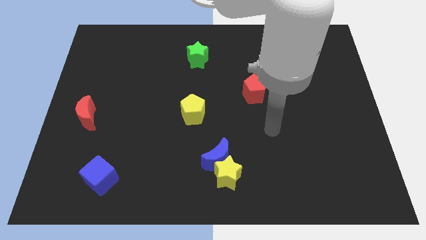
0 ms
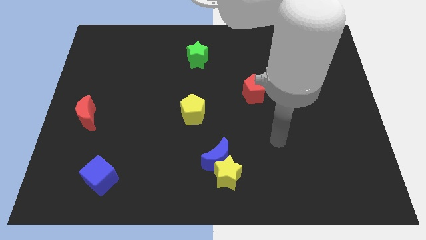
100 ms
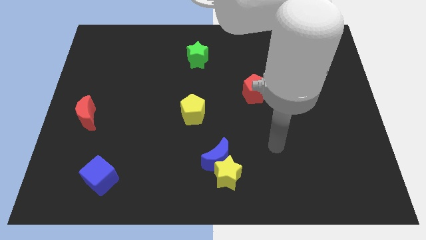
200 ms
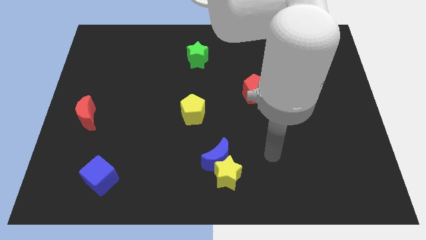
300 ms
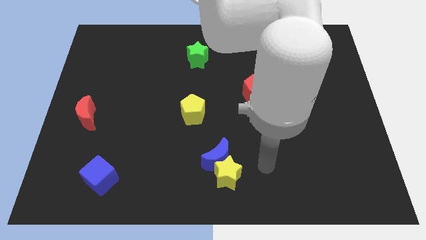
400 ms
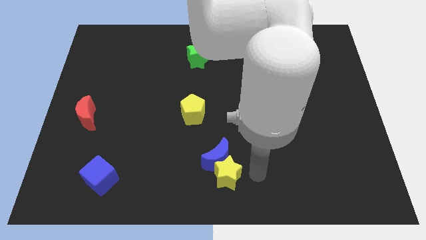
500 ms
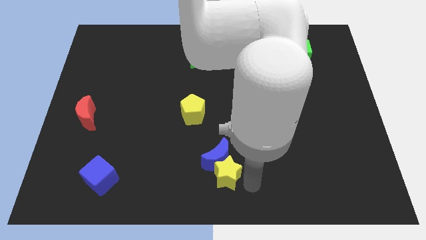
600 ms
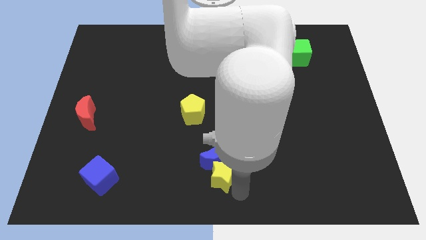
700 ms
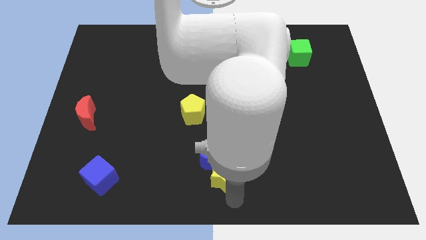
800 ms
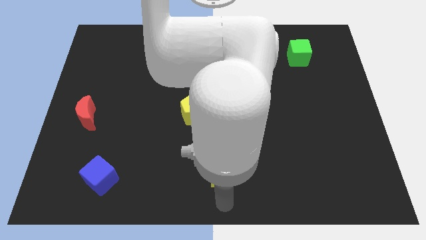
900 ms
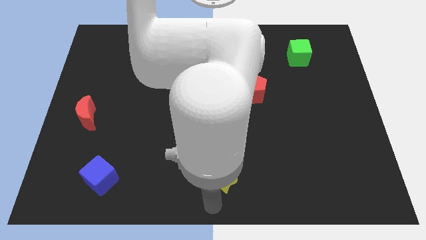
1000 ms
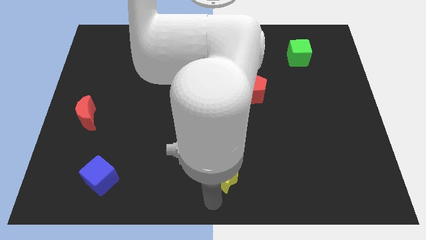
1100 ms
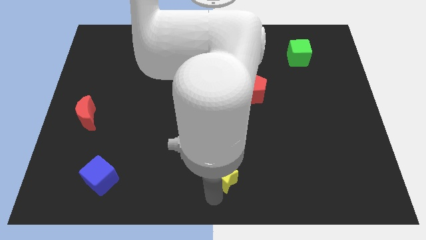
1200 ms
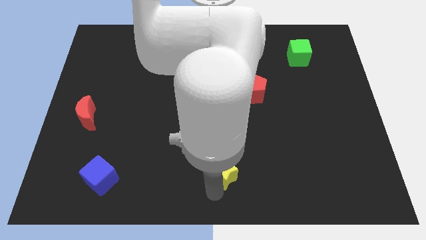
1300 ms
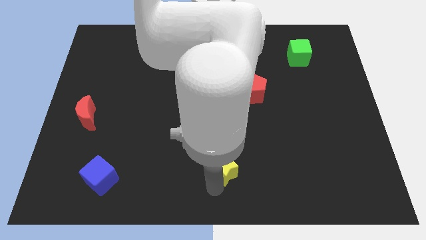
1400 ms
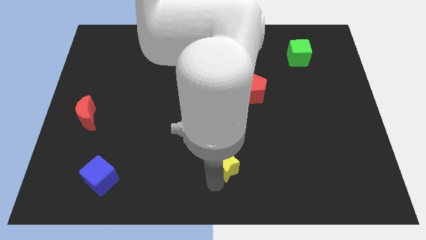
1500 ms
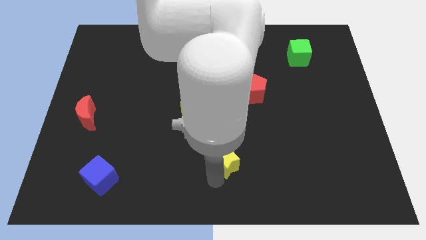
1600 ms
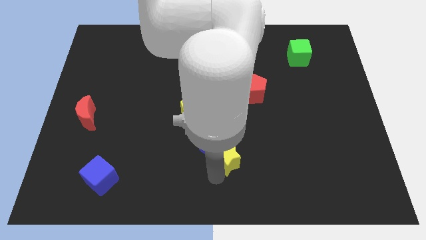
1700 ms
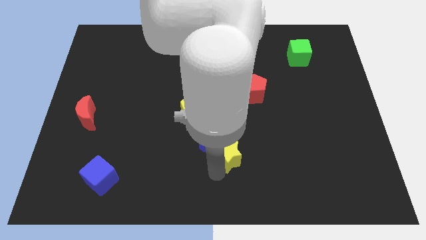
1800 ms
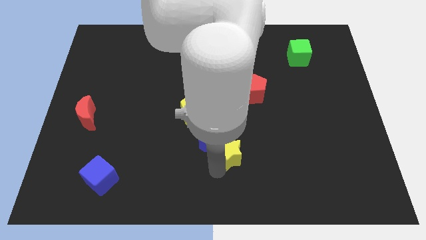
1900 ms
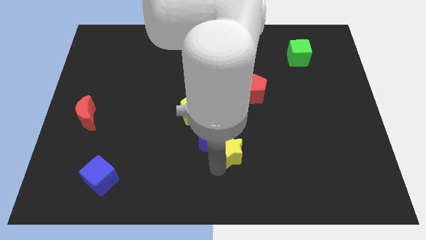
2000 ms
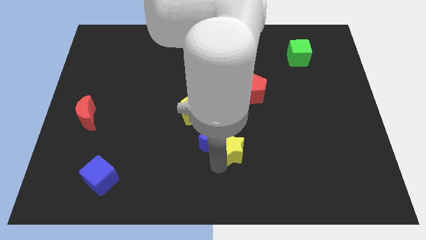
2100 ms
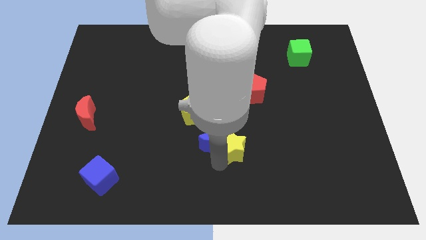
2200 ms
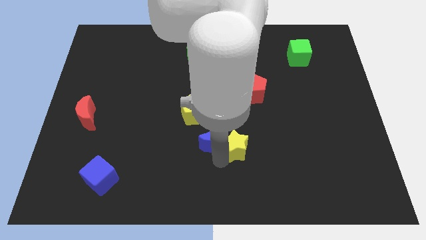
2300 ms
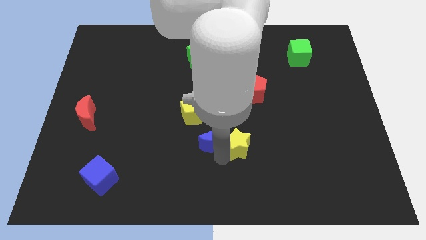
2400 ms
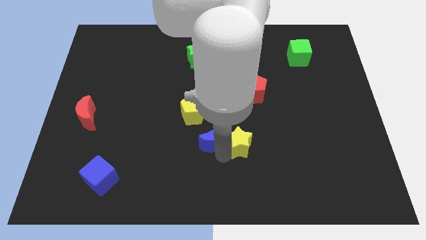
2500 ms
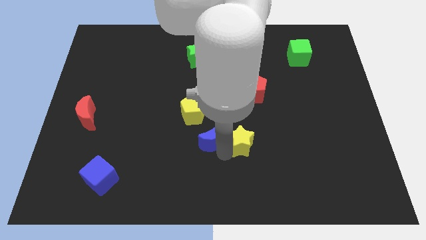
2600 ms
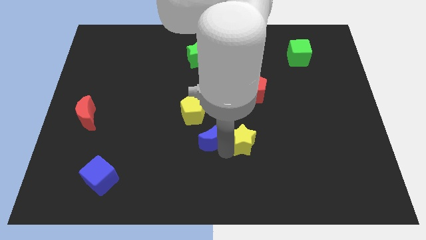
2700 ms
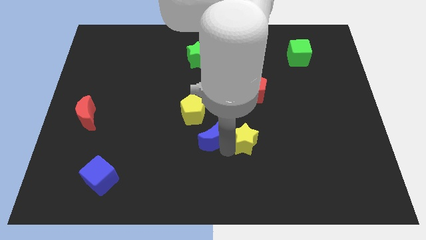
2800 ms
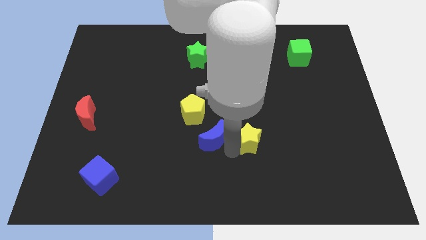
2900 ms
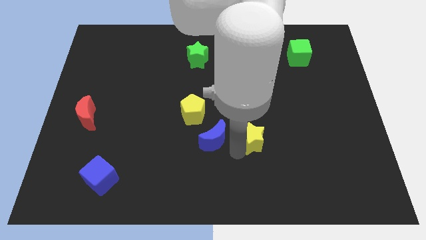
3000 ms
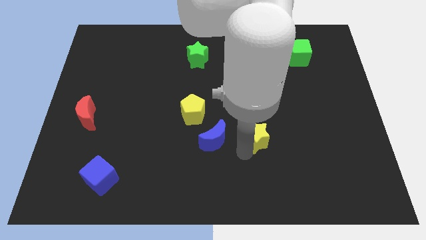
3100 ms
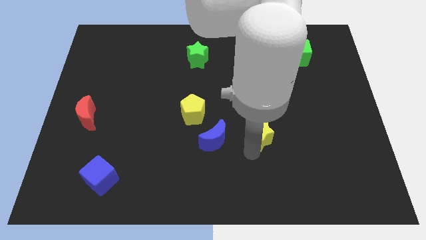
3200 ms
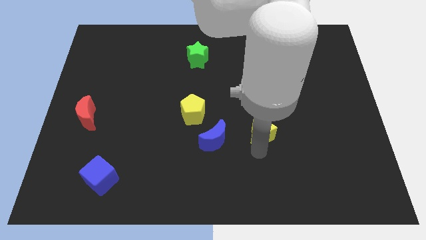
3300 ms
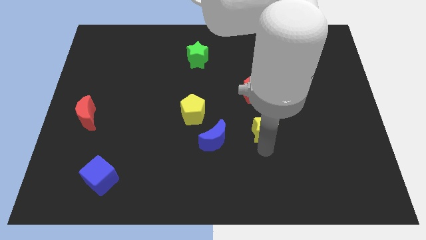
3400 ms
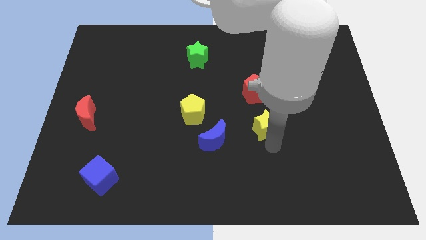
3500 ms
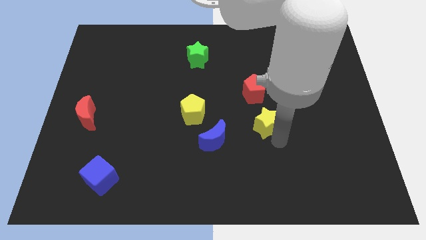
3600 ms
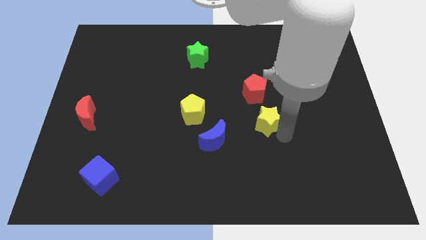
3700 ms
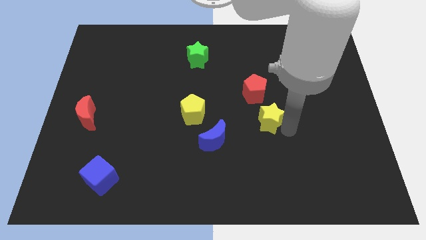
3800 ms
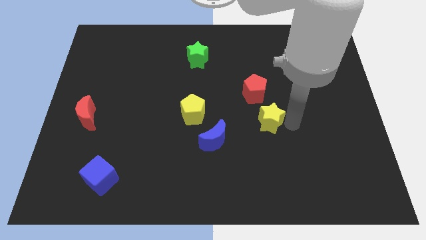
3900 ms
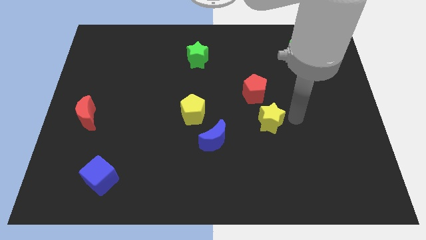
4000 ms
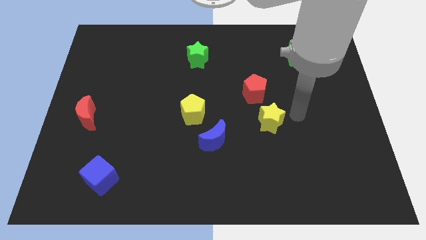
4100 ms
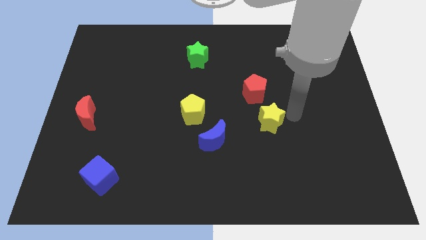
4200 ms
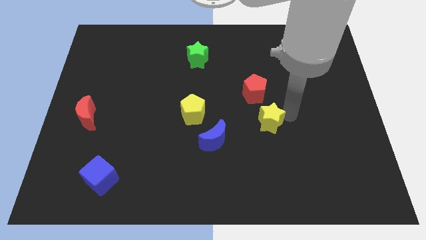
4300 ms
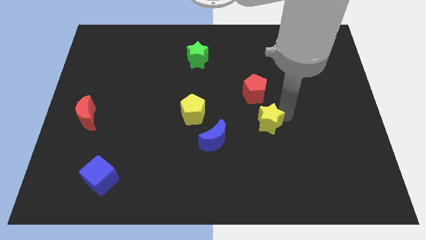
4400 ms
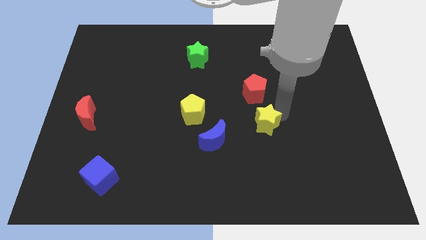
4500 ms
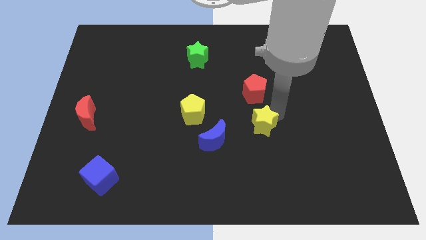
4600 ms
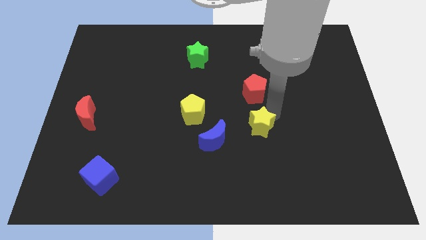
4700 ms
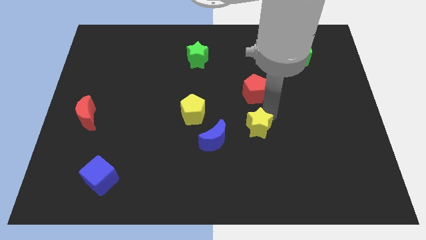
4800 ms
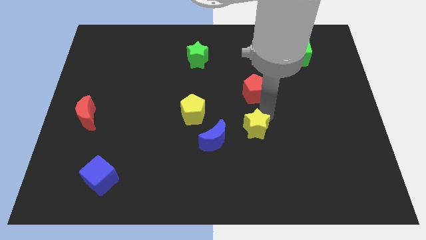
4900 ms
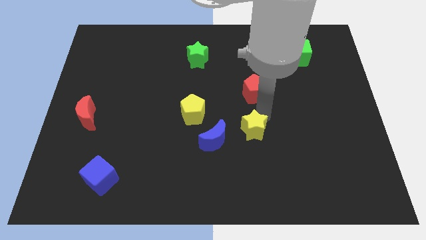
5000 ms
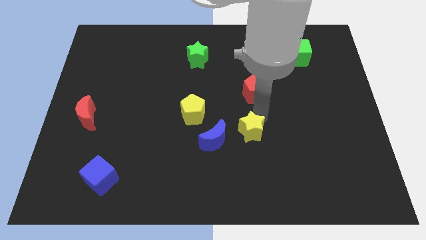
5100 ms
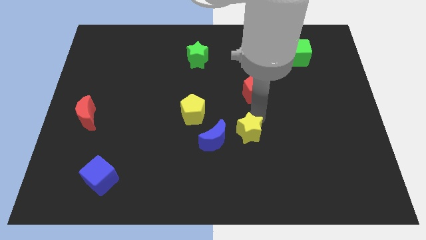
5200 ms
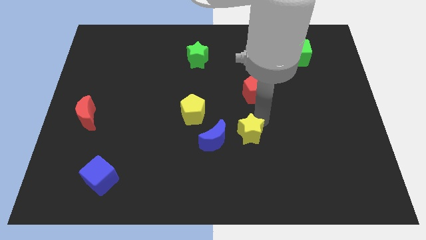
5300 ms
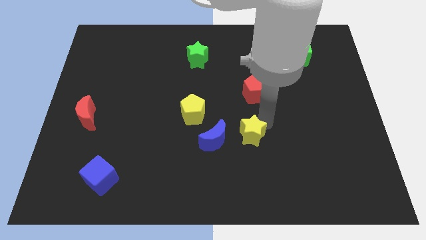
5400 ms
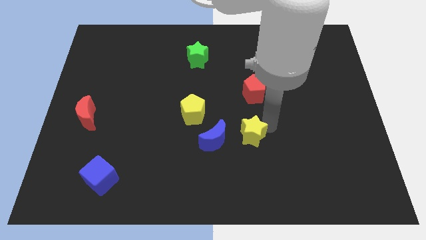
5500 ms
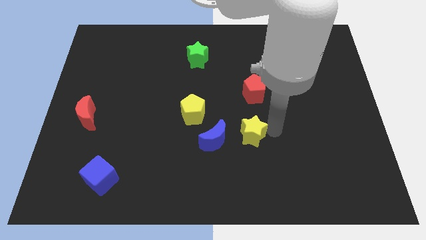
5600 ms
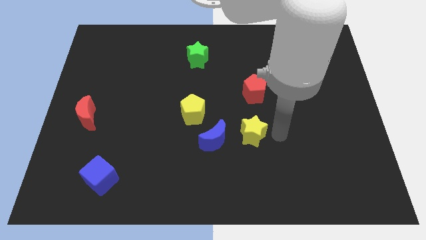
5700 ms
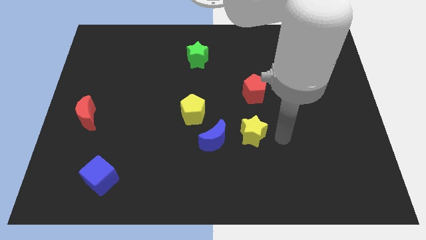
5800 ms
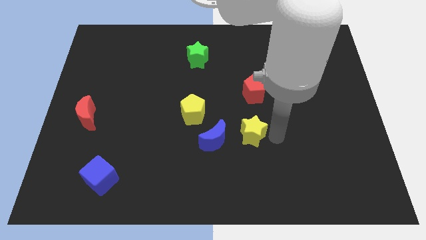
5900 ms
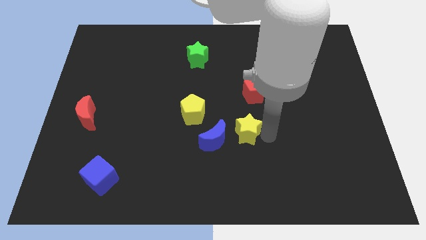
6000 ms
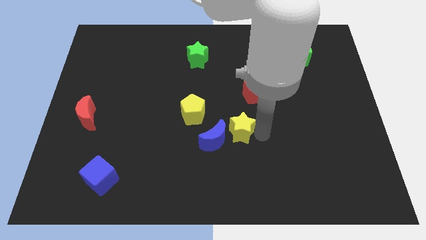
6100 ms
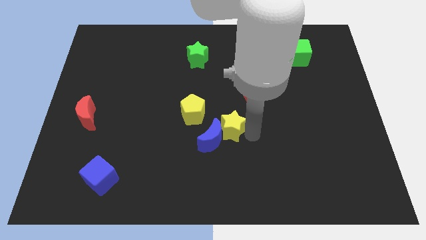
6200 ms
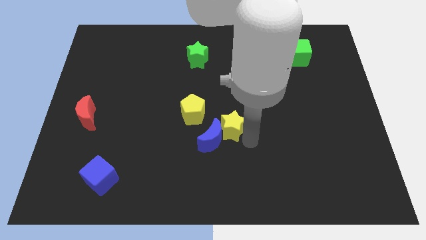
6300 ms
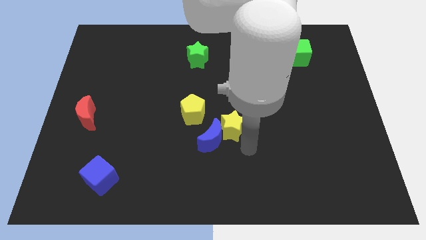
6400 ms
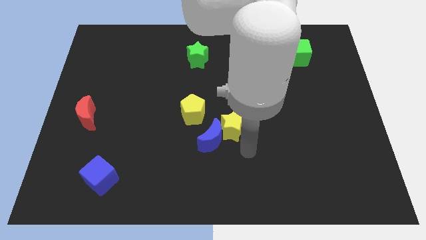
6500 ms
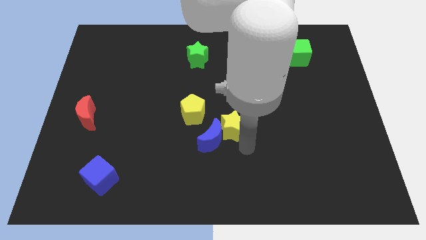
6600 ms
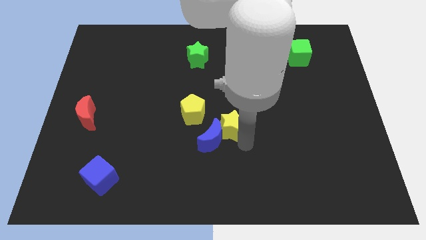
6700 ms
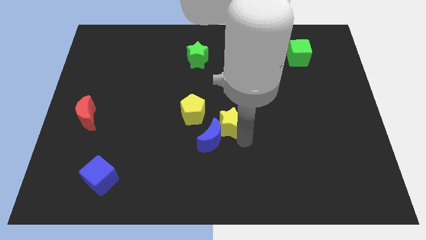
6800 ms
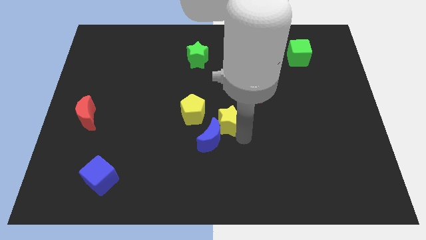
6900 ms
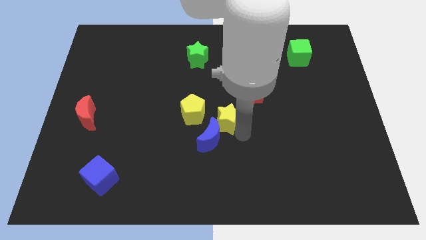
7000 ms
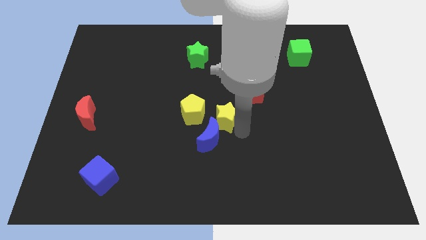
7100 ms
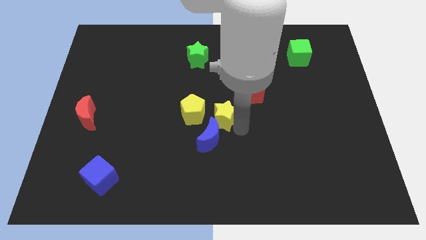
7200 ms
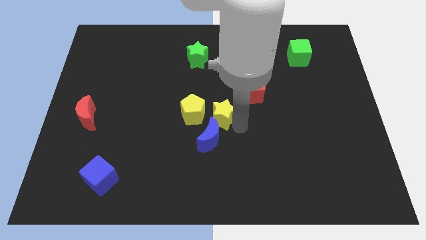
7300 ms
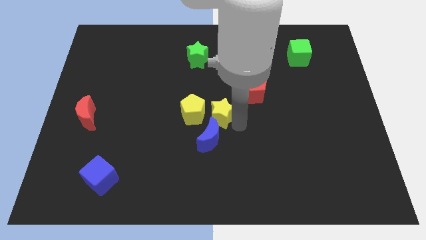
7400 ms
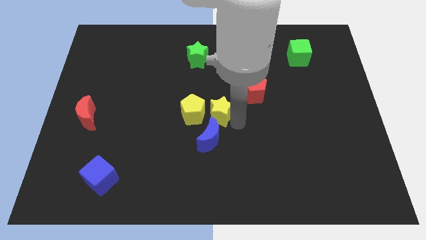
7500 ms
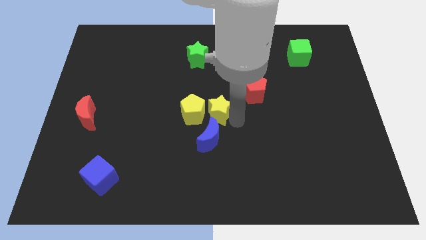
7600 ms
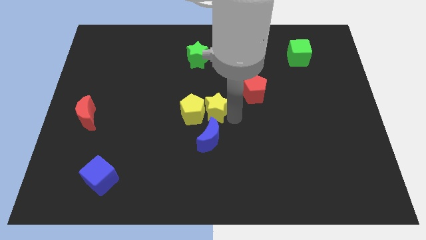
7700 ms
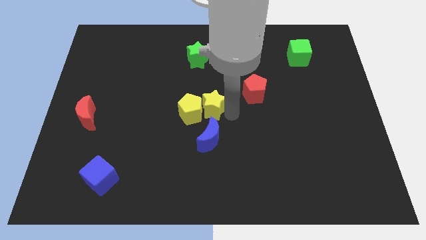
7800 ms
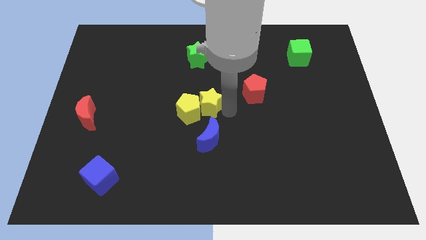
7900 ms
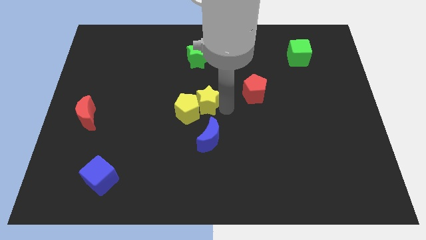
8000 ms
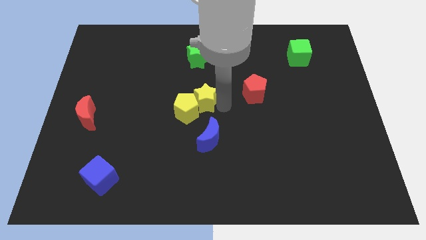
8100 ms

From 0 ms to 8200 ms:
move the yellow star to the top of the yellow pentagon
